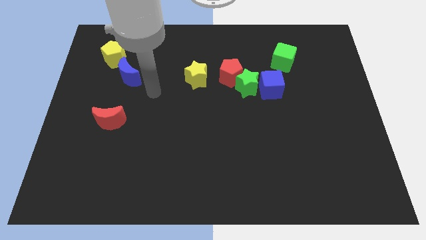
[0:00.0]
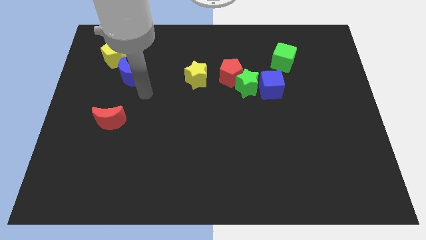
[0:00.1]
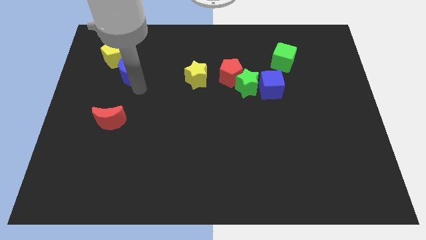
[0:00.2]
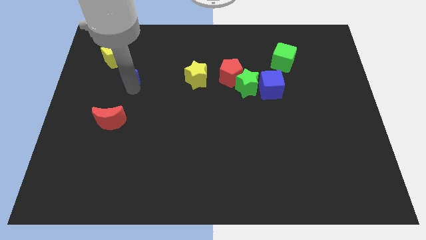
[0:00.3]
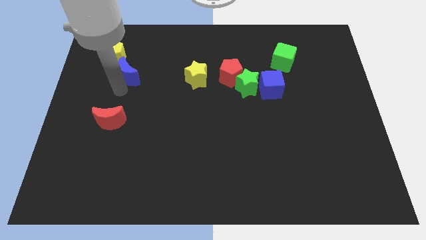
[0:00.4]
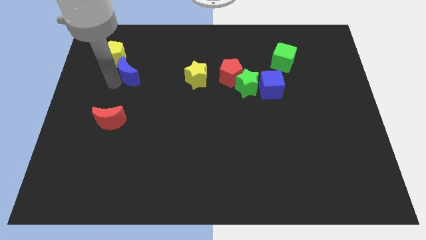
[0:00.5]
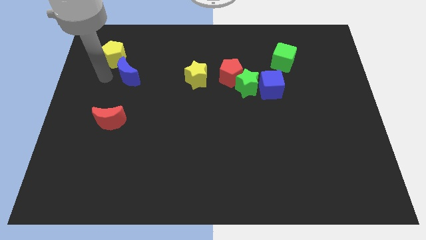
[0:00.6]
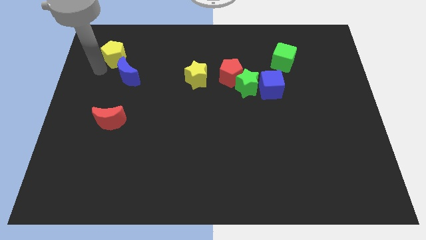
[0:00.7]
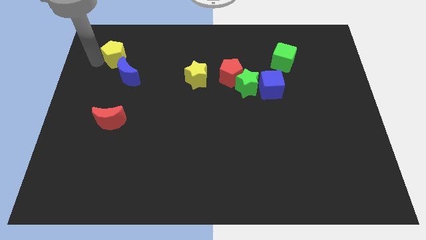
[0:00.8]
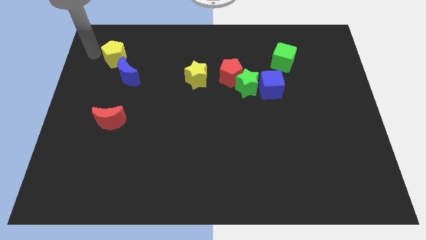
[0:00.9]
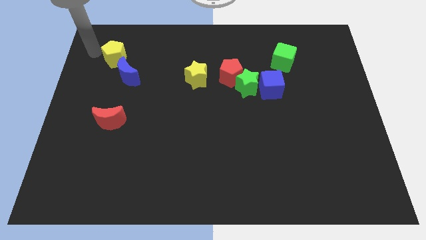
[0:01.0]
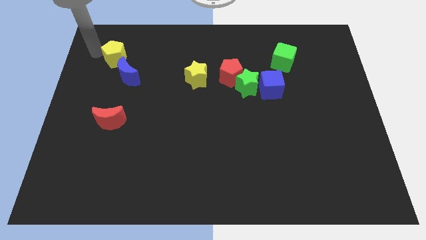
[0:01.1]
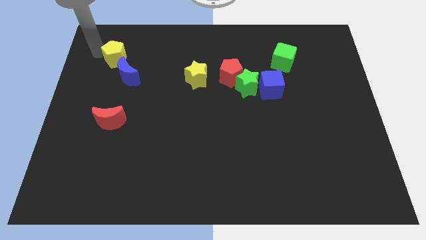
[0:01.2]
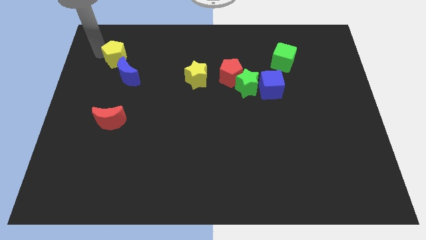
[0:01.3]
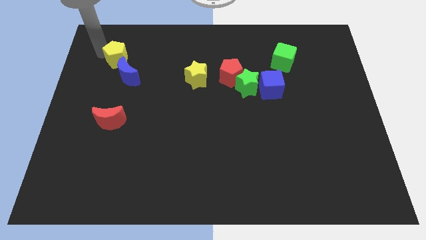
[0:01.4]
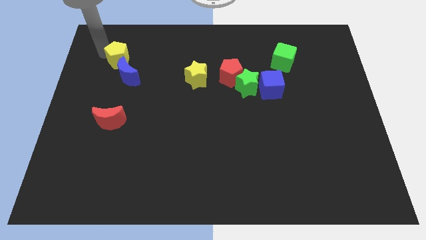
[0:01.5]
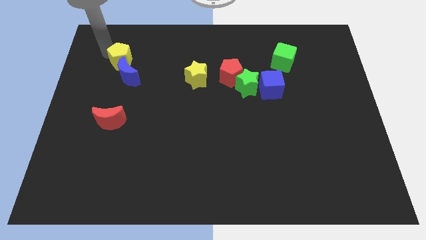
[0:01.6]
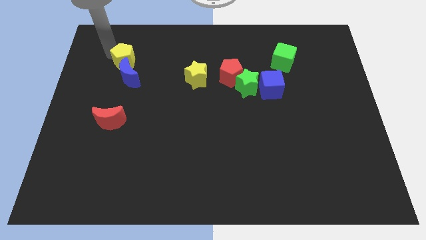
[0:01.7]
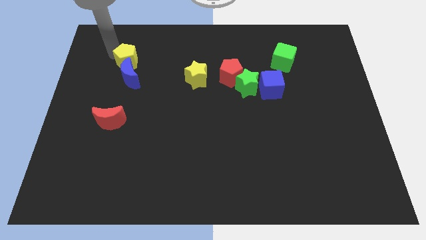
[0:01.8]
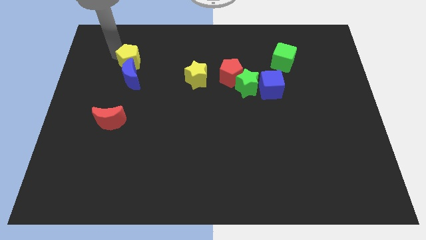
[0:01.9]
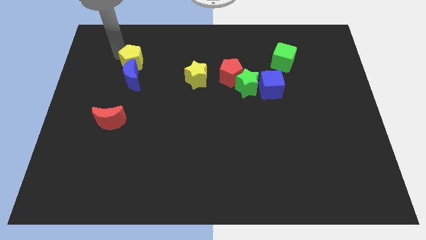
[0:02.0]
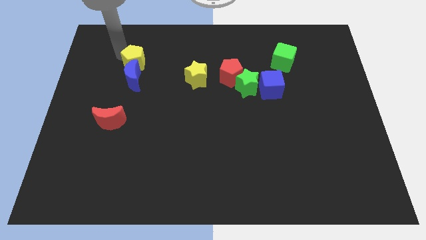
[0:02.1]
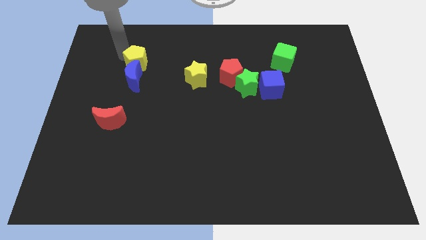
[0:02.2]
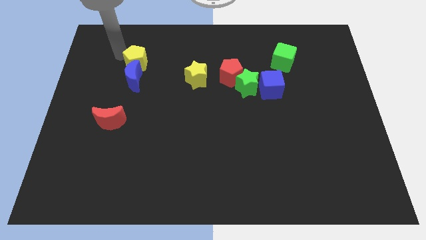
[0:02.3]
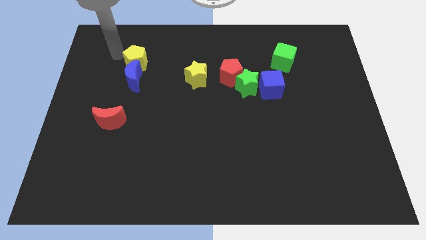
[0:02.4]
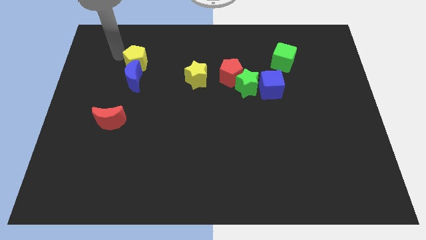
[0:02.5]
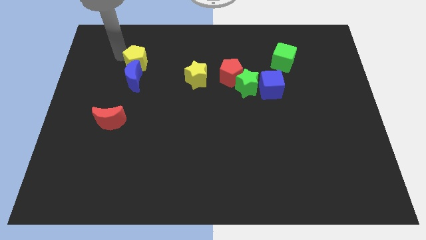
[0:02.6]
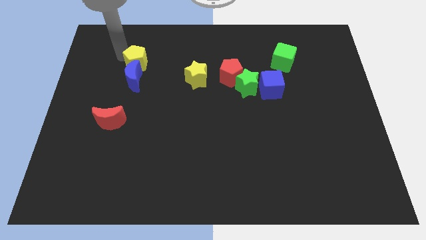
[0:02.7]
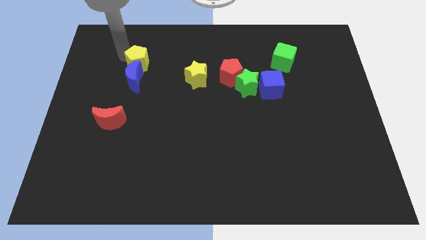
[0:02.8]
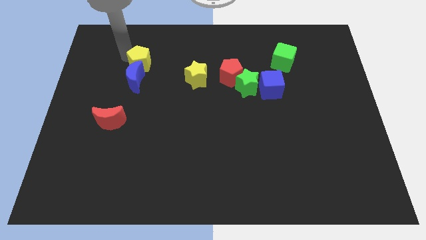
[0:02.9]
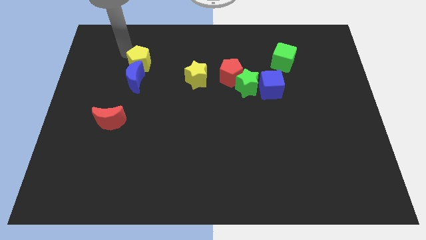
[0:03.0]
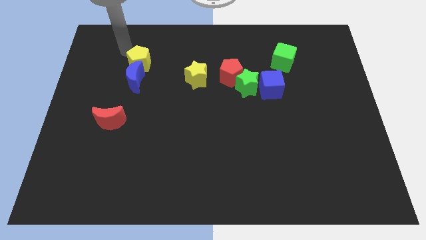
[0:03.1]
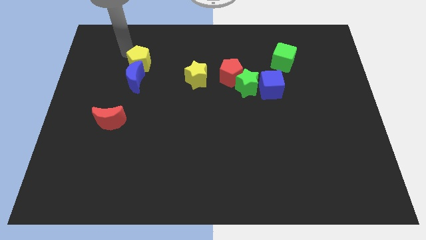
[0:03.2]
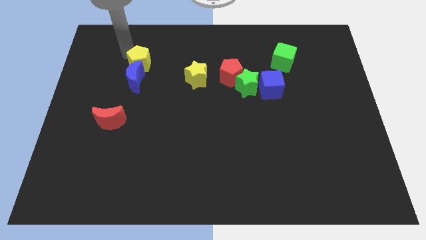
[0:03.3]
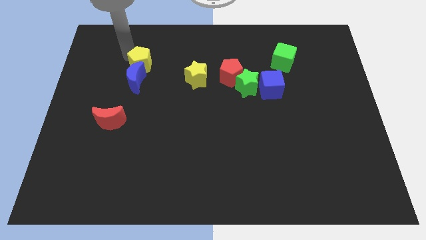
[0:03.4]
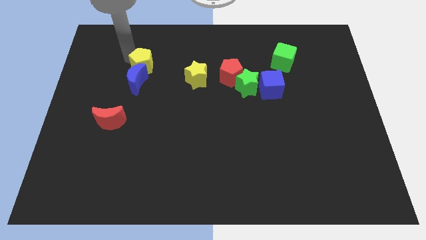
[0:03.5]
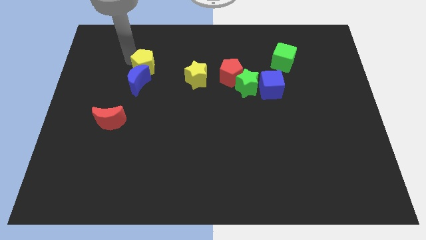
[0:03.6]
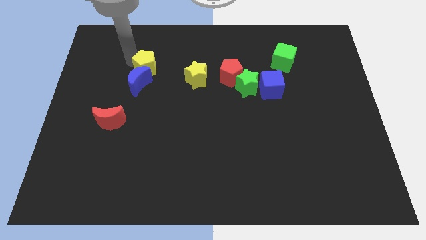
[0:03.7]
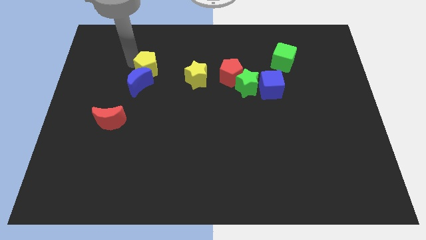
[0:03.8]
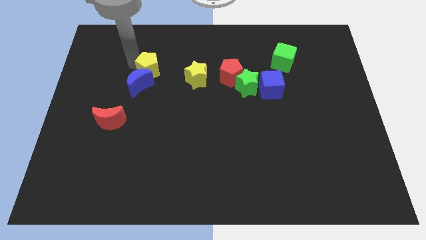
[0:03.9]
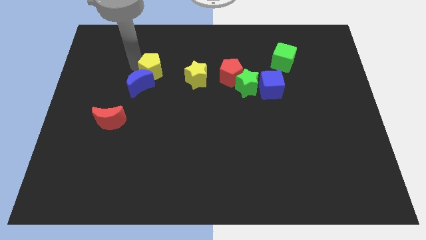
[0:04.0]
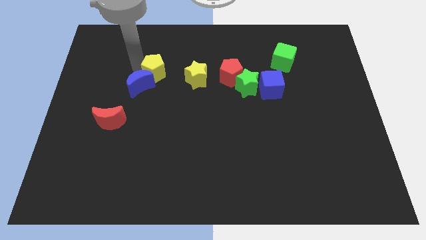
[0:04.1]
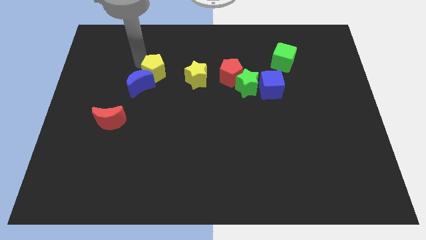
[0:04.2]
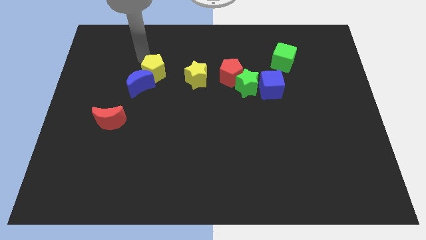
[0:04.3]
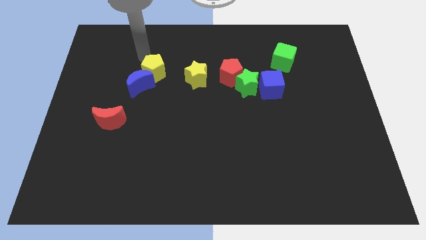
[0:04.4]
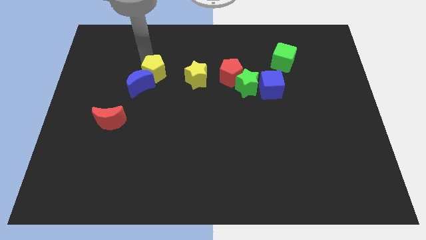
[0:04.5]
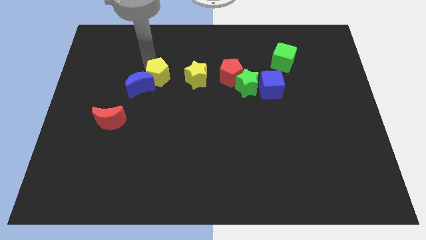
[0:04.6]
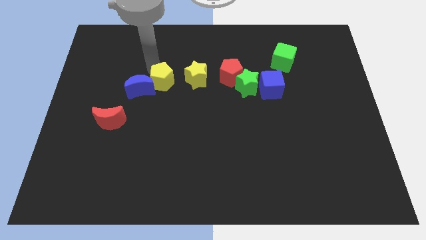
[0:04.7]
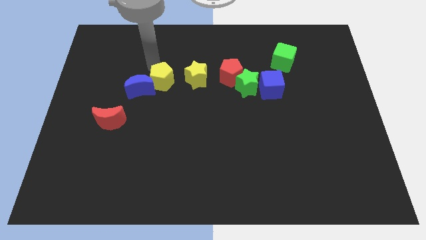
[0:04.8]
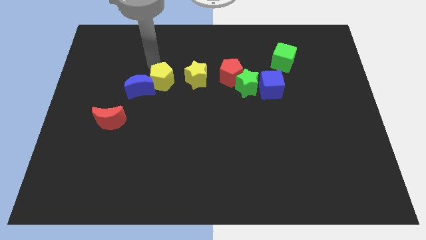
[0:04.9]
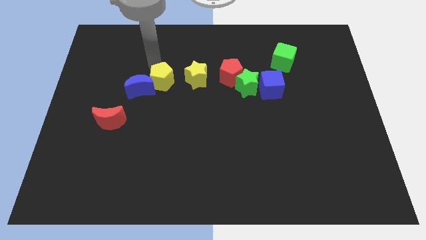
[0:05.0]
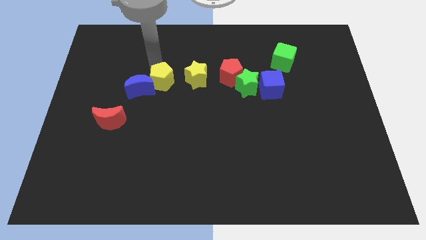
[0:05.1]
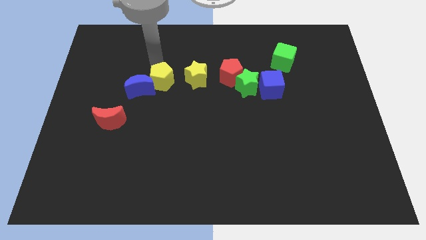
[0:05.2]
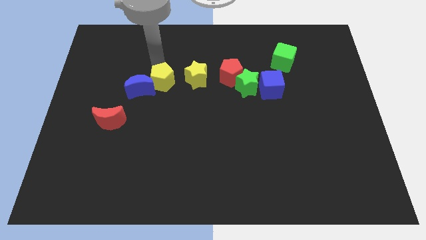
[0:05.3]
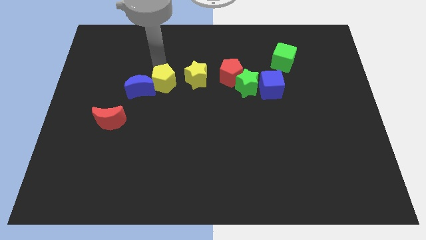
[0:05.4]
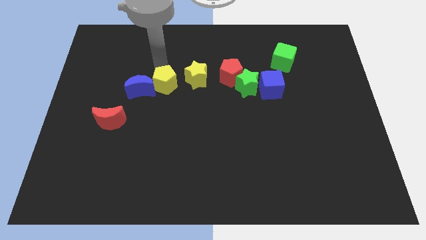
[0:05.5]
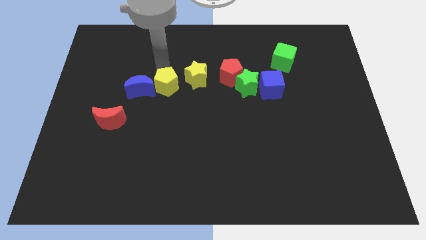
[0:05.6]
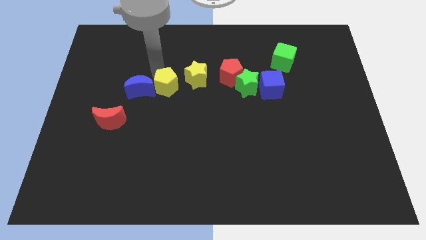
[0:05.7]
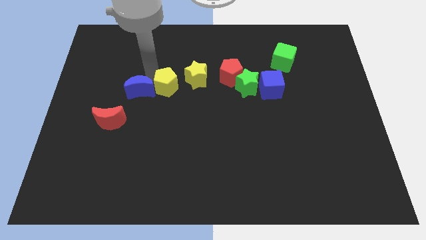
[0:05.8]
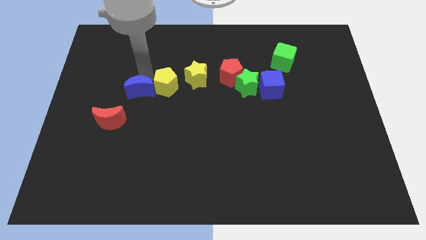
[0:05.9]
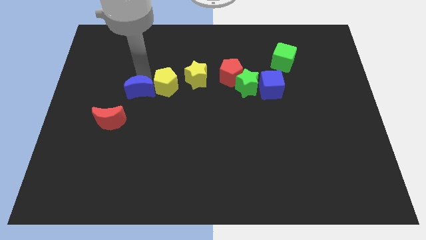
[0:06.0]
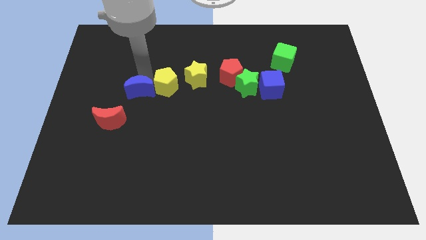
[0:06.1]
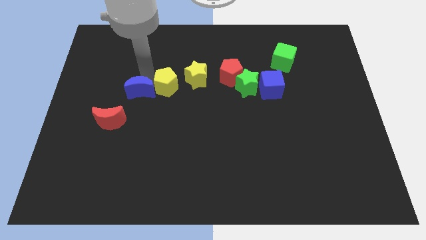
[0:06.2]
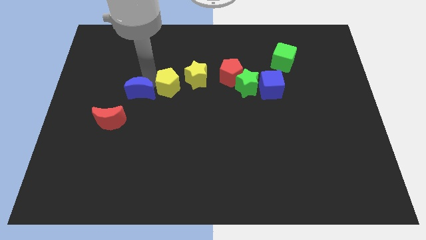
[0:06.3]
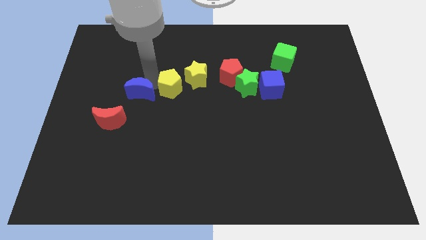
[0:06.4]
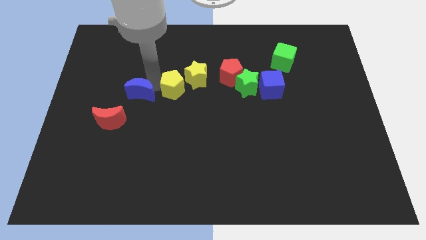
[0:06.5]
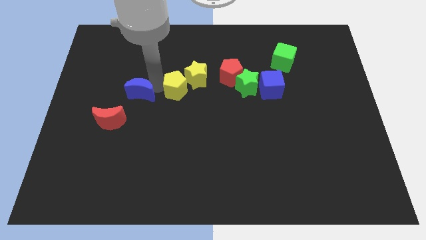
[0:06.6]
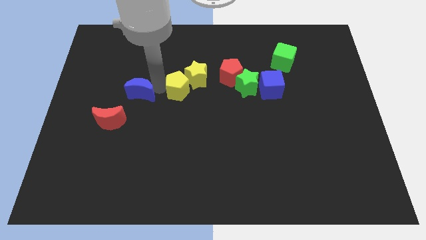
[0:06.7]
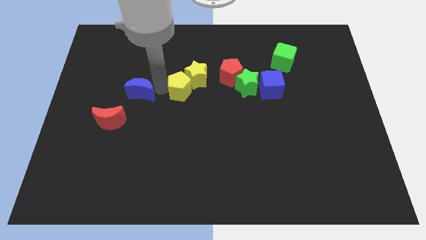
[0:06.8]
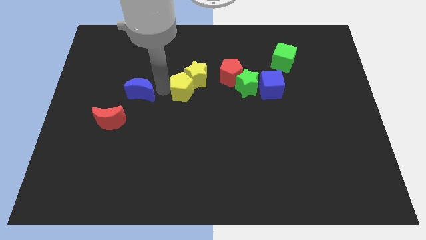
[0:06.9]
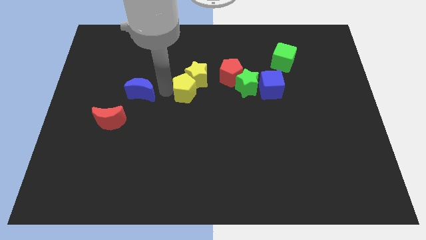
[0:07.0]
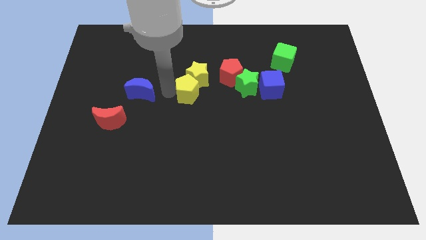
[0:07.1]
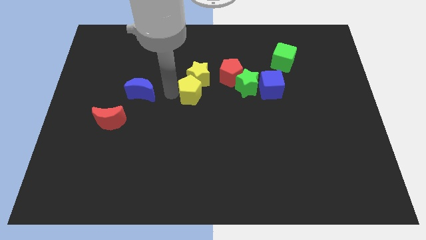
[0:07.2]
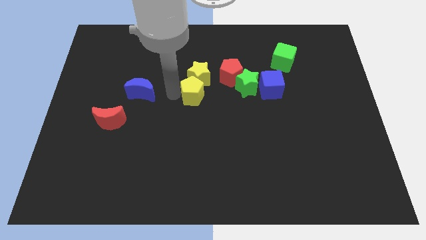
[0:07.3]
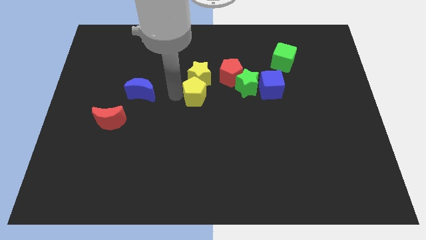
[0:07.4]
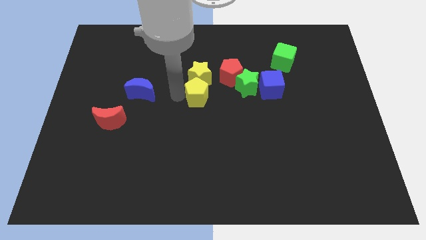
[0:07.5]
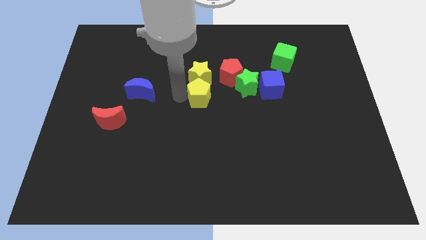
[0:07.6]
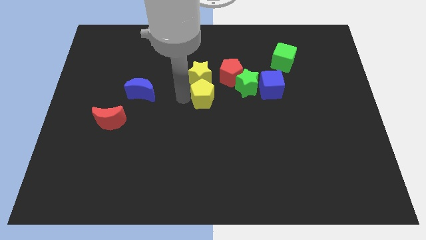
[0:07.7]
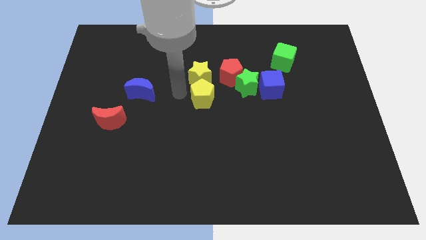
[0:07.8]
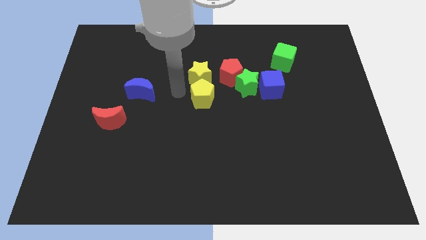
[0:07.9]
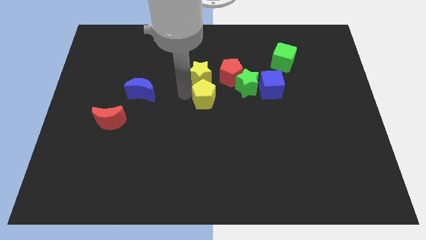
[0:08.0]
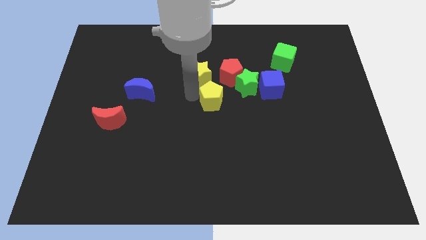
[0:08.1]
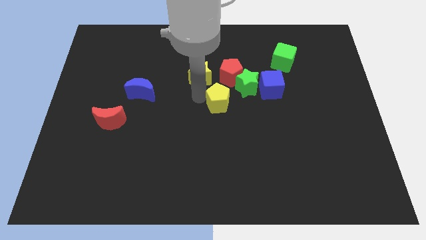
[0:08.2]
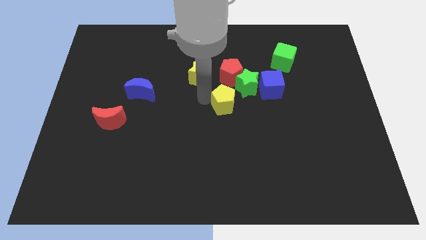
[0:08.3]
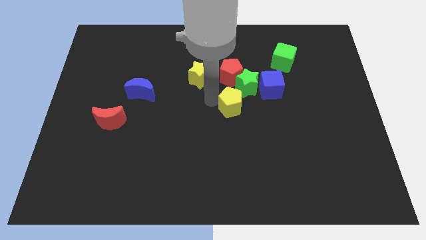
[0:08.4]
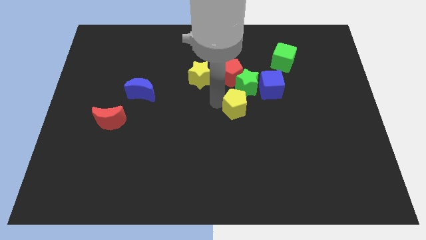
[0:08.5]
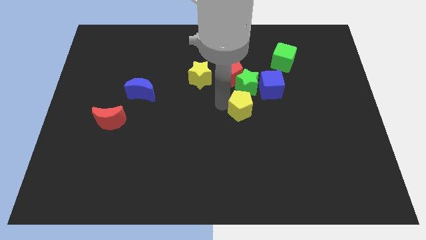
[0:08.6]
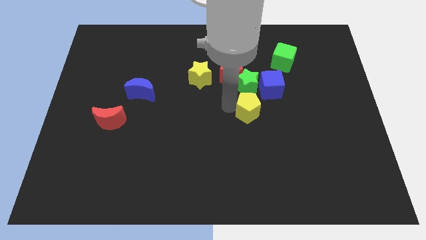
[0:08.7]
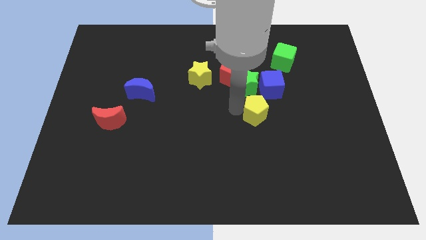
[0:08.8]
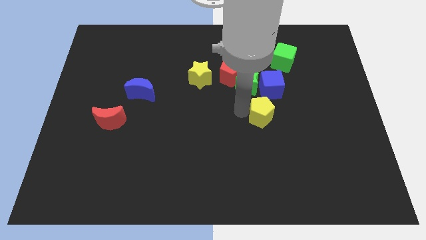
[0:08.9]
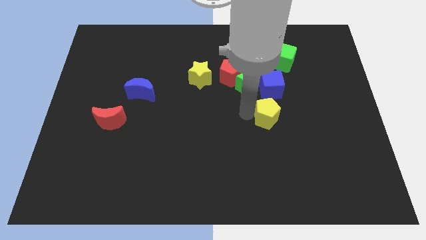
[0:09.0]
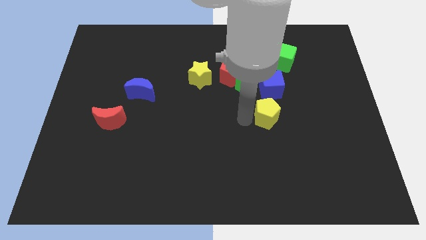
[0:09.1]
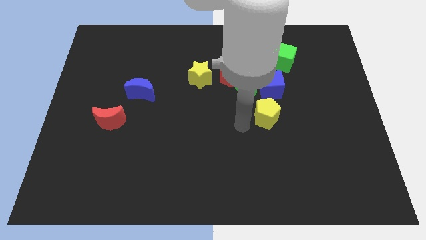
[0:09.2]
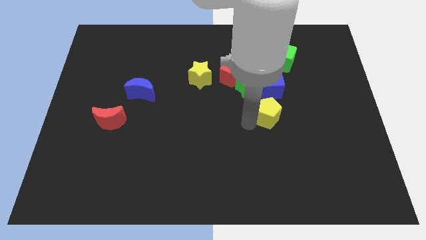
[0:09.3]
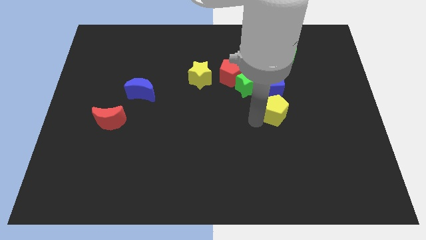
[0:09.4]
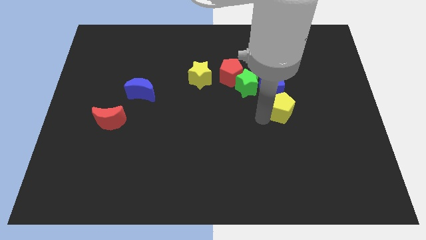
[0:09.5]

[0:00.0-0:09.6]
slide the yellow pentagon to the bottom right side of the blue cube
